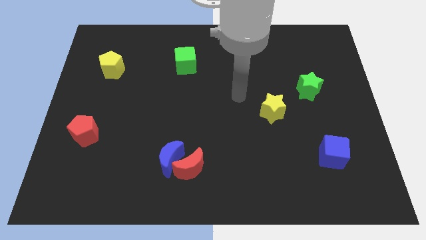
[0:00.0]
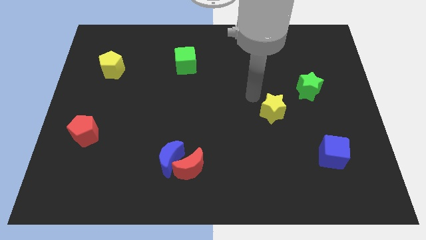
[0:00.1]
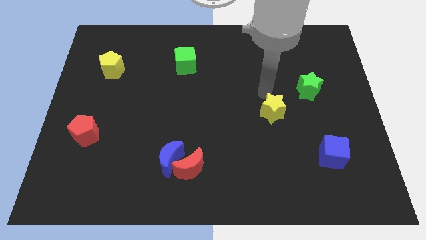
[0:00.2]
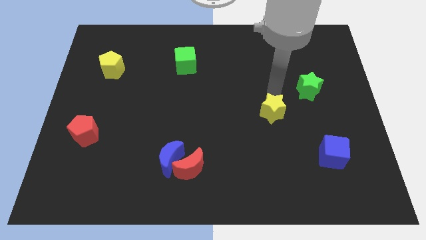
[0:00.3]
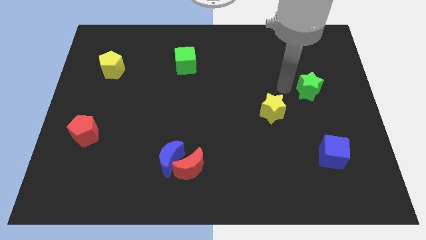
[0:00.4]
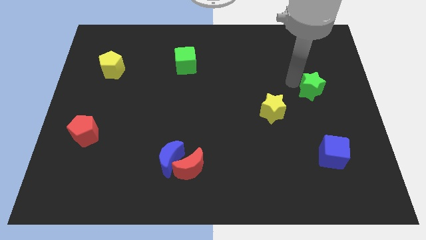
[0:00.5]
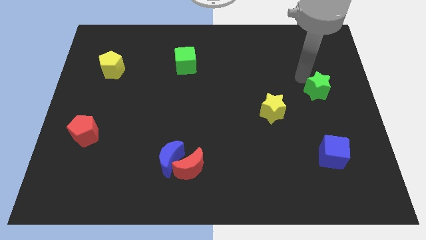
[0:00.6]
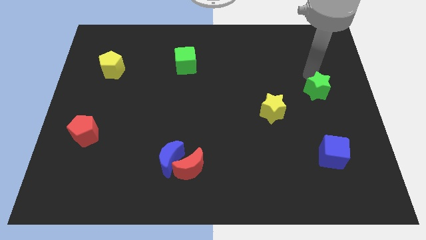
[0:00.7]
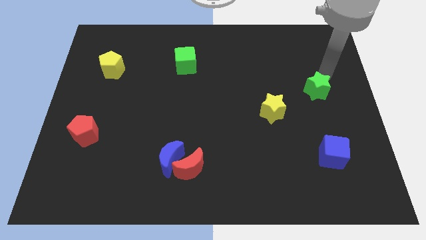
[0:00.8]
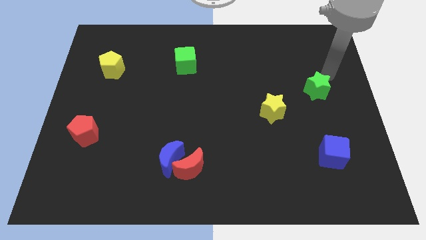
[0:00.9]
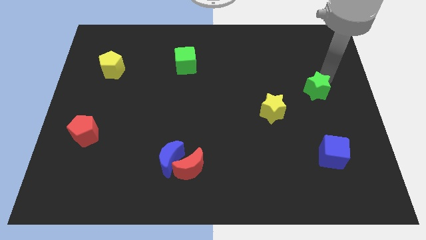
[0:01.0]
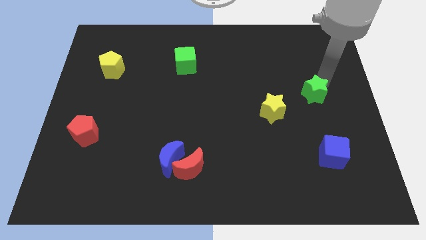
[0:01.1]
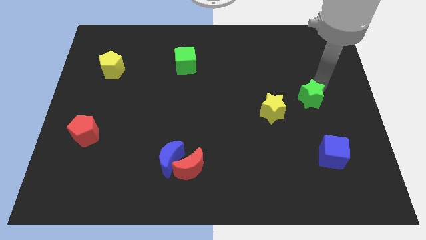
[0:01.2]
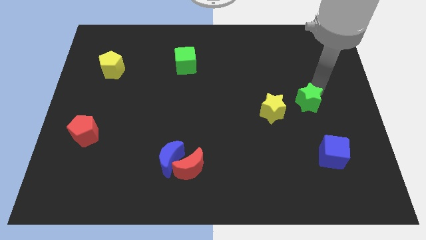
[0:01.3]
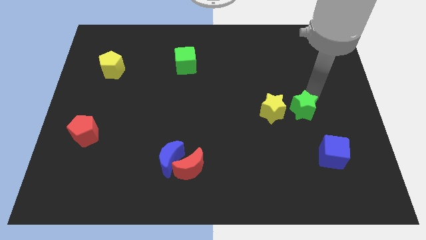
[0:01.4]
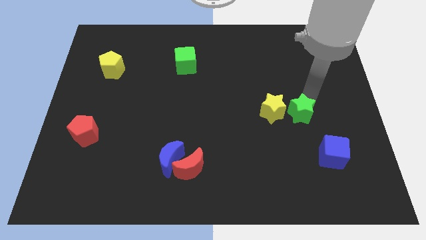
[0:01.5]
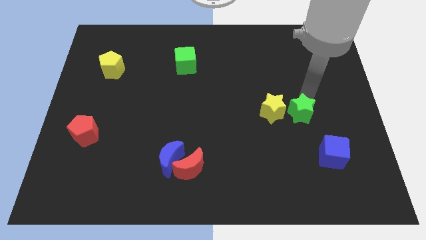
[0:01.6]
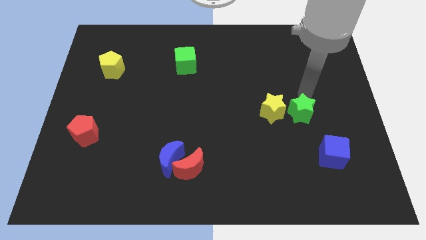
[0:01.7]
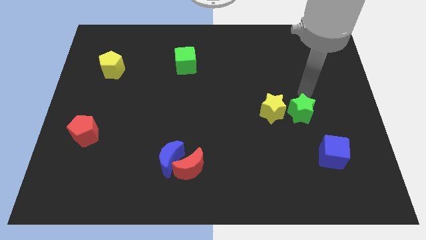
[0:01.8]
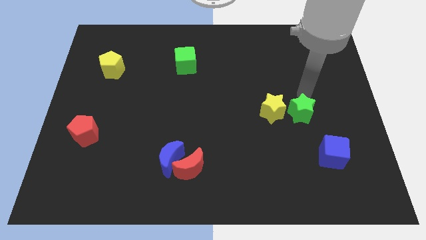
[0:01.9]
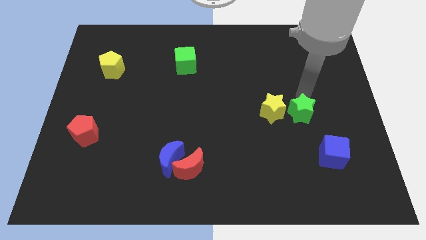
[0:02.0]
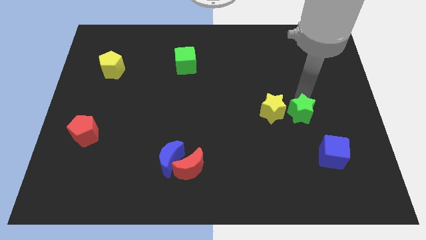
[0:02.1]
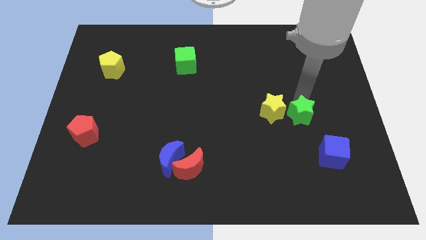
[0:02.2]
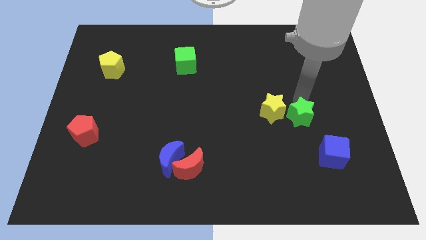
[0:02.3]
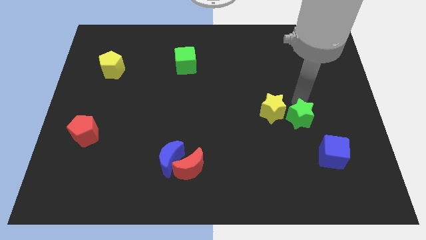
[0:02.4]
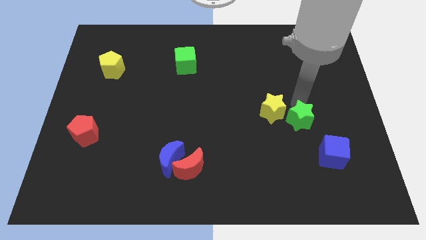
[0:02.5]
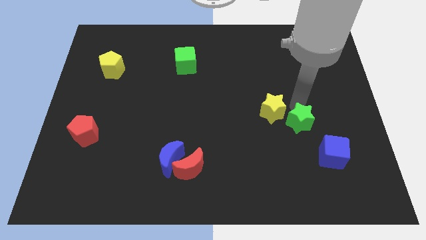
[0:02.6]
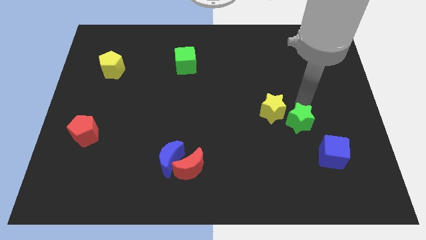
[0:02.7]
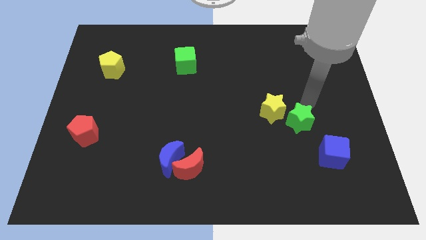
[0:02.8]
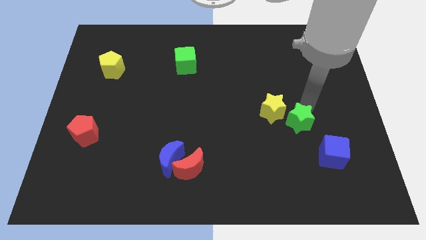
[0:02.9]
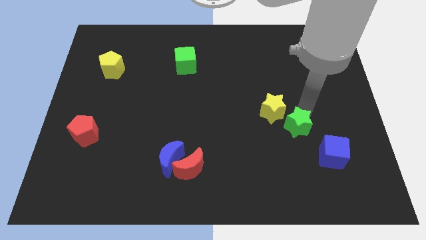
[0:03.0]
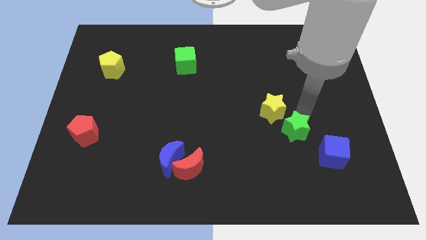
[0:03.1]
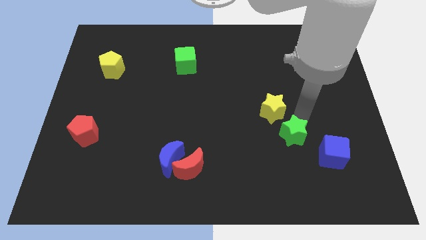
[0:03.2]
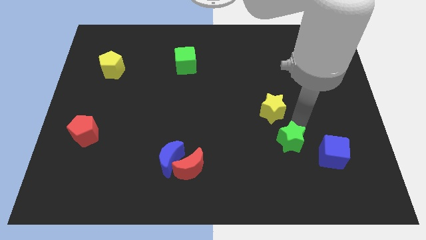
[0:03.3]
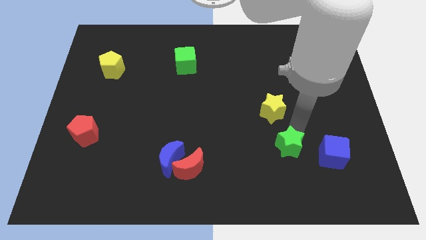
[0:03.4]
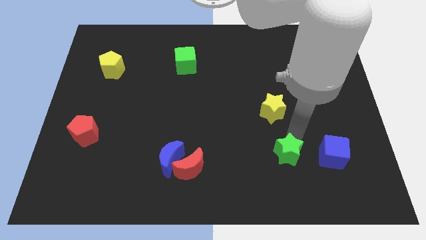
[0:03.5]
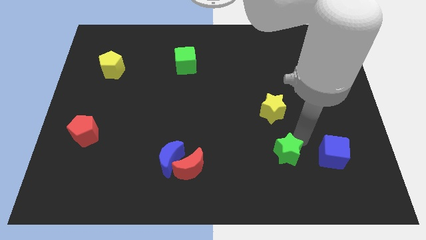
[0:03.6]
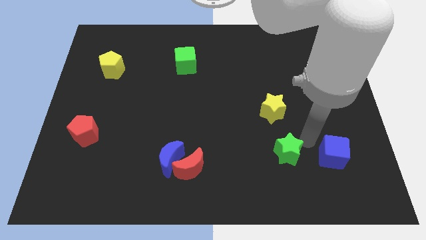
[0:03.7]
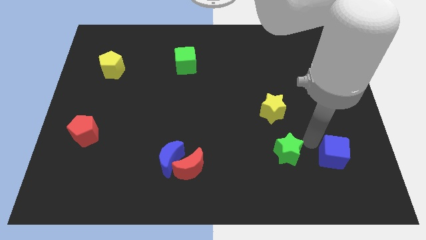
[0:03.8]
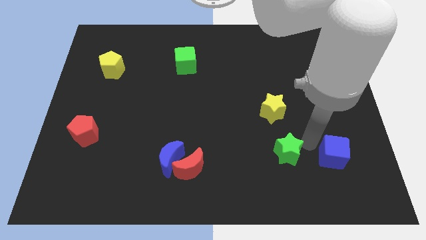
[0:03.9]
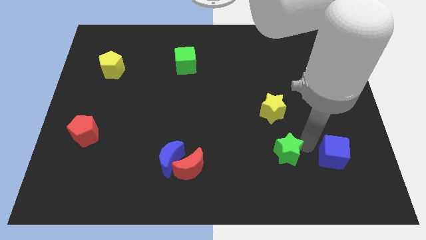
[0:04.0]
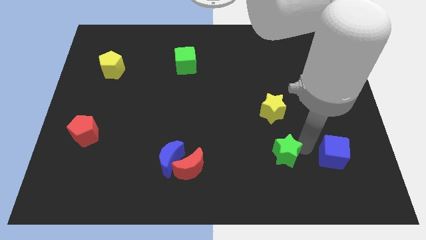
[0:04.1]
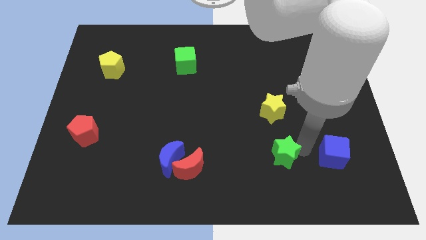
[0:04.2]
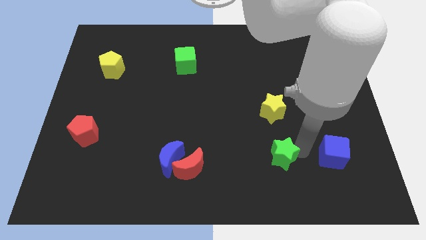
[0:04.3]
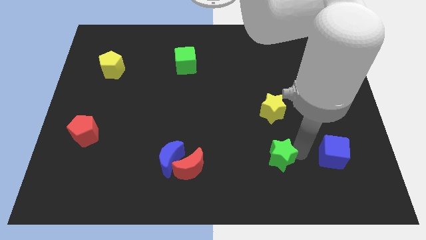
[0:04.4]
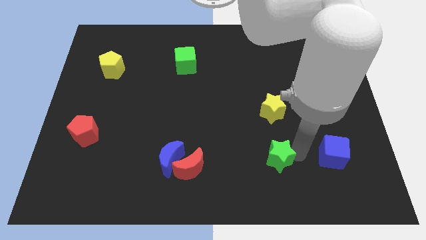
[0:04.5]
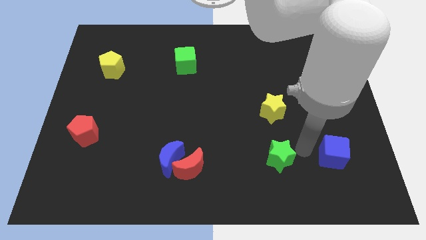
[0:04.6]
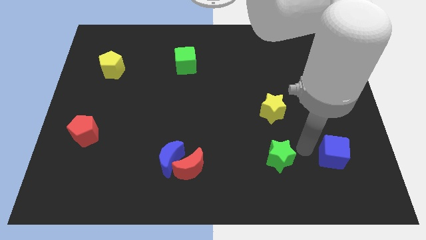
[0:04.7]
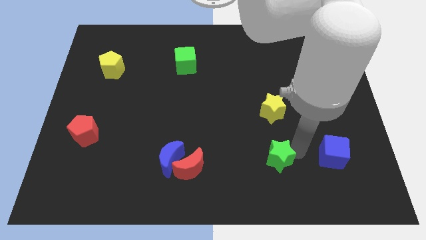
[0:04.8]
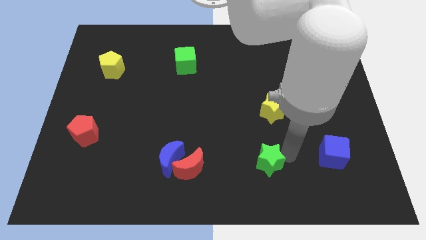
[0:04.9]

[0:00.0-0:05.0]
move the green star downwards and left

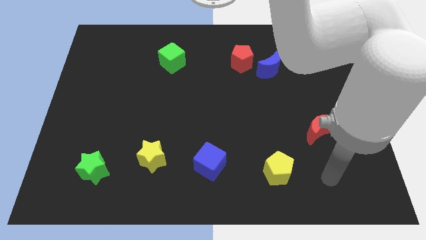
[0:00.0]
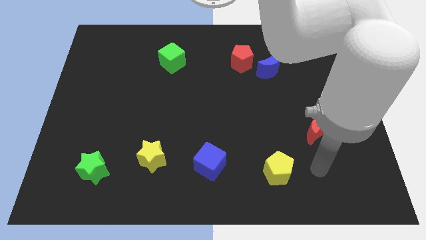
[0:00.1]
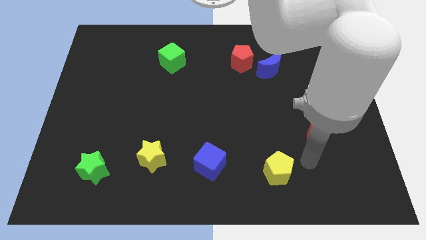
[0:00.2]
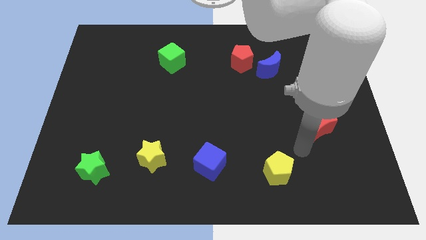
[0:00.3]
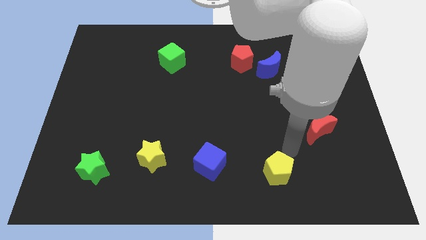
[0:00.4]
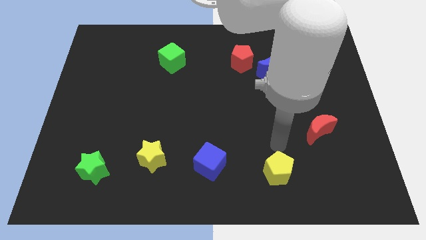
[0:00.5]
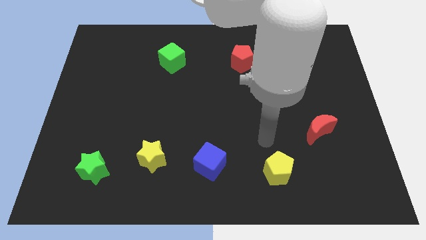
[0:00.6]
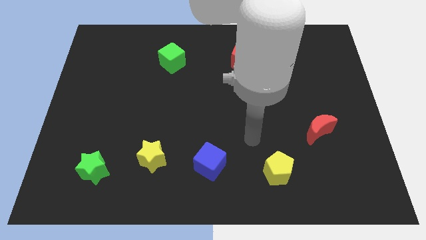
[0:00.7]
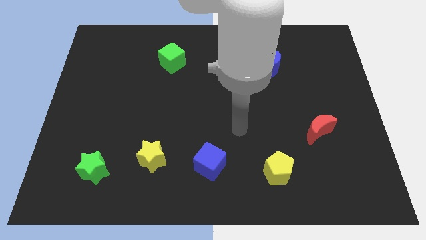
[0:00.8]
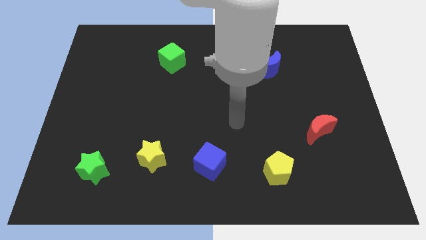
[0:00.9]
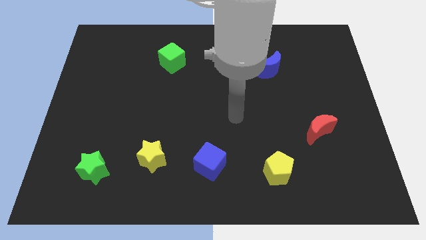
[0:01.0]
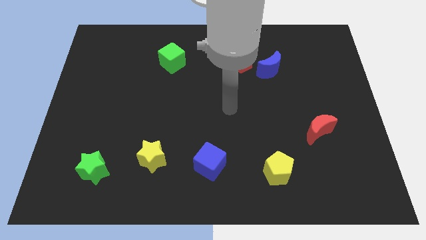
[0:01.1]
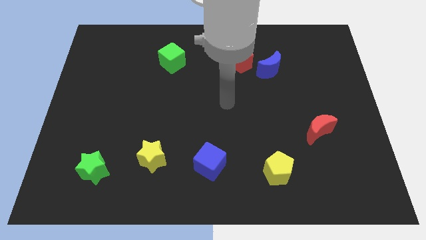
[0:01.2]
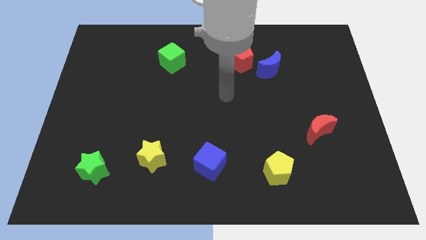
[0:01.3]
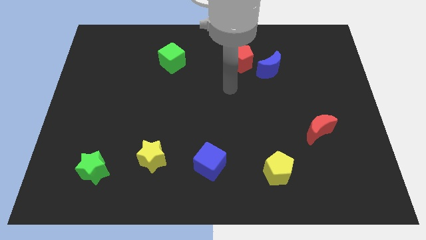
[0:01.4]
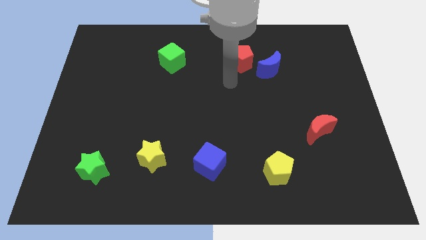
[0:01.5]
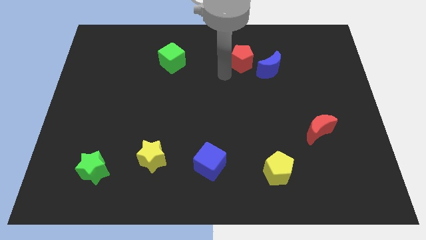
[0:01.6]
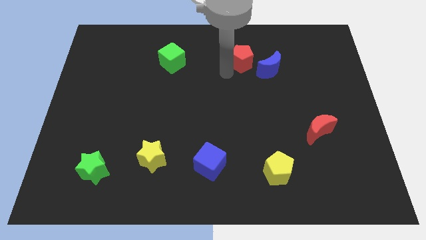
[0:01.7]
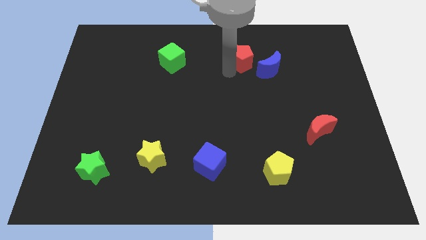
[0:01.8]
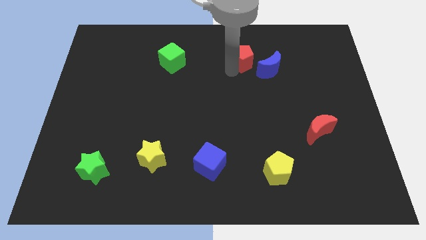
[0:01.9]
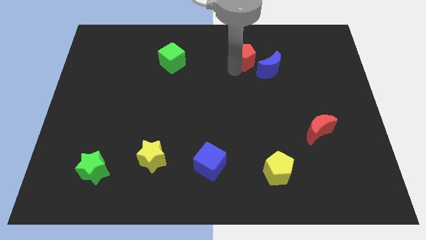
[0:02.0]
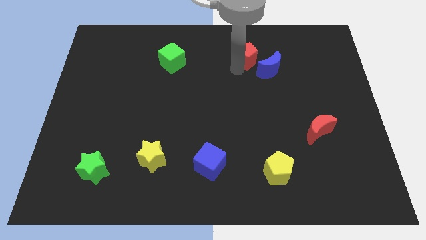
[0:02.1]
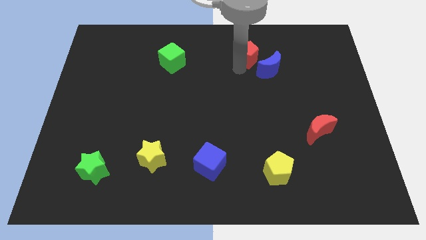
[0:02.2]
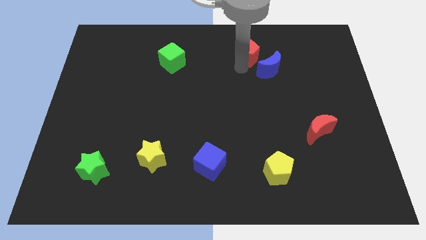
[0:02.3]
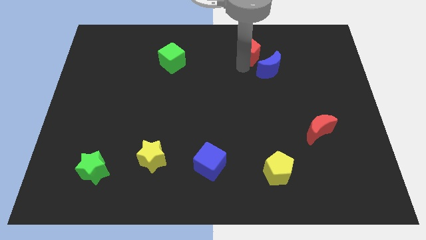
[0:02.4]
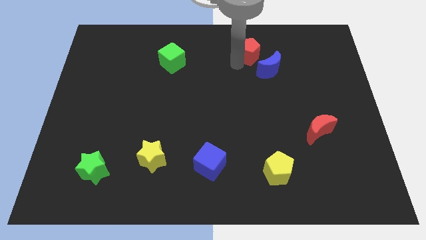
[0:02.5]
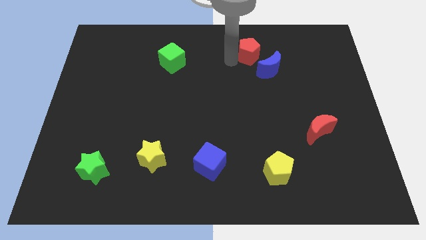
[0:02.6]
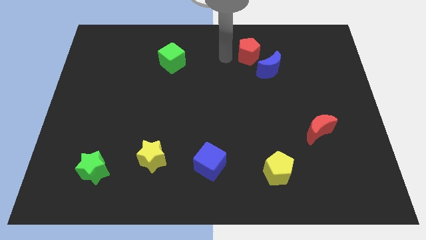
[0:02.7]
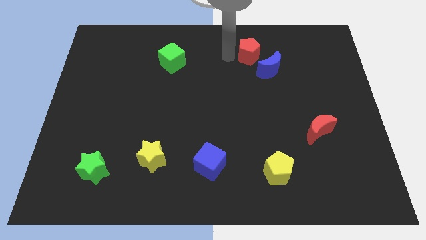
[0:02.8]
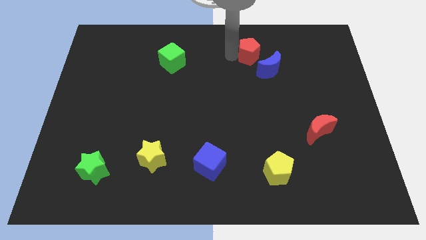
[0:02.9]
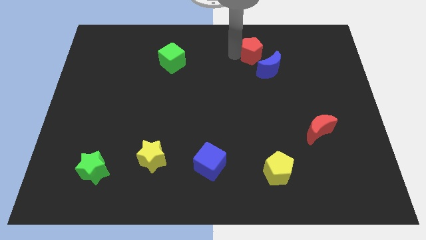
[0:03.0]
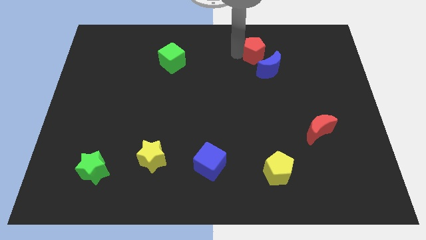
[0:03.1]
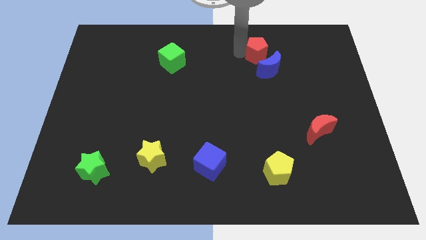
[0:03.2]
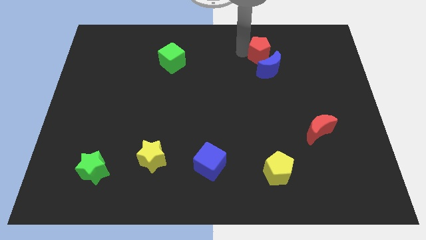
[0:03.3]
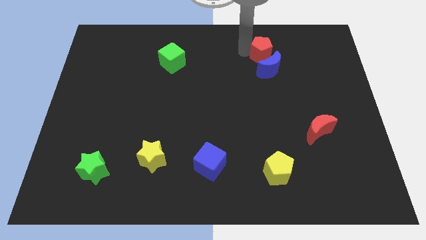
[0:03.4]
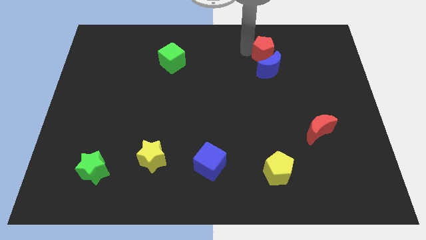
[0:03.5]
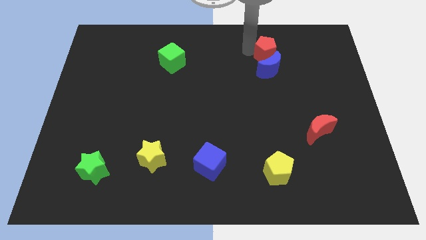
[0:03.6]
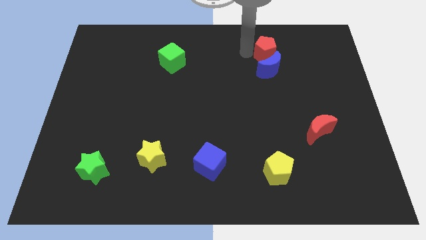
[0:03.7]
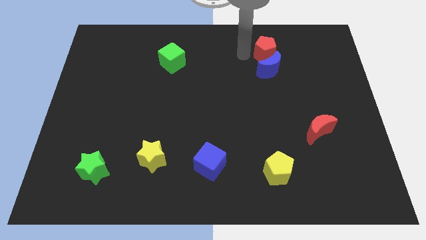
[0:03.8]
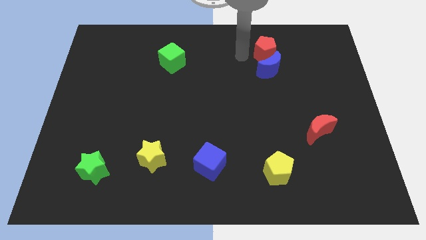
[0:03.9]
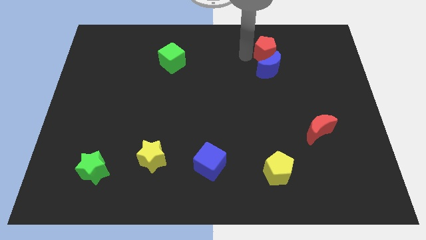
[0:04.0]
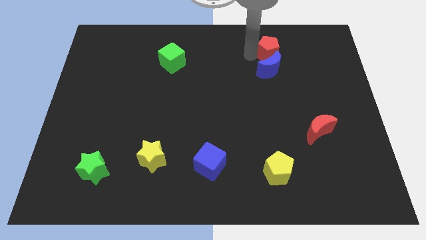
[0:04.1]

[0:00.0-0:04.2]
slightly move the red pentagon to the right
